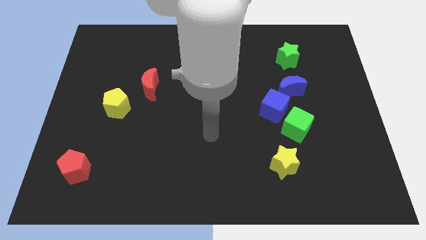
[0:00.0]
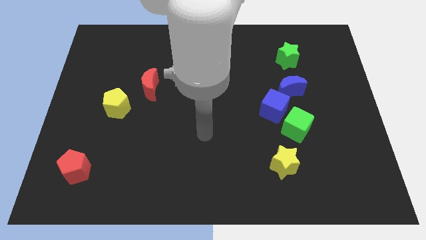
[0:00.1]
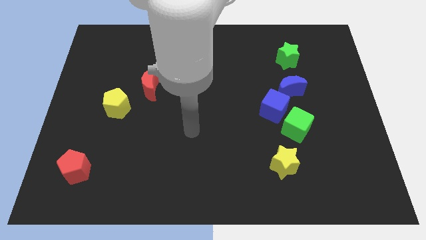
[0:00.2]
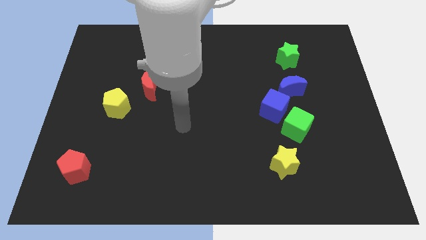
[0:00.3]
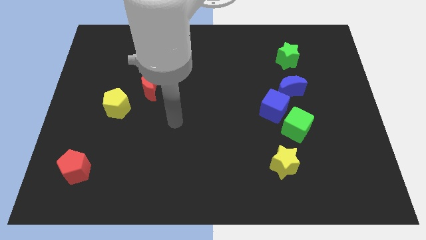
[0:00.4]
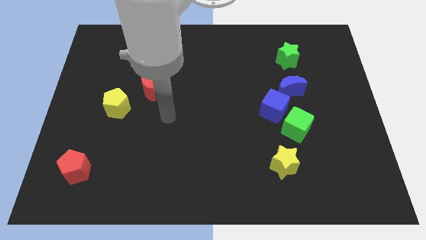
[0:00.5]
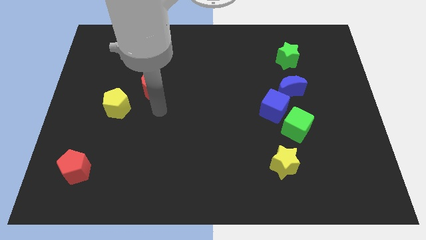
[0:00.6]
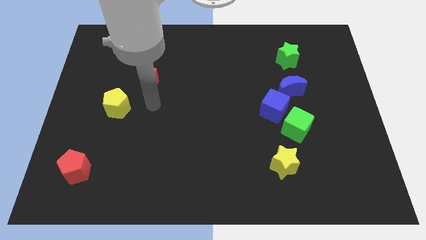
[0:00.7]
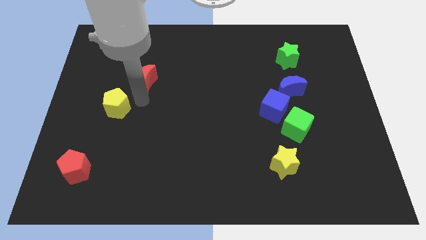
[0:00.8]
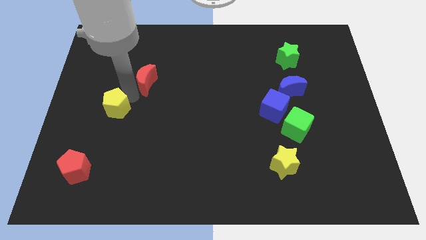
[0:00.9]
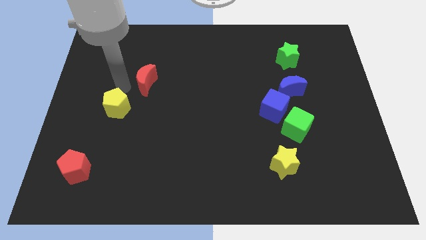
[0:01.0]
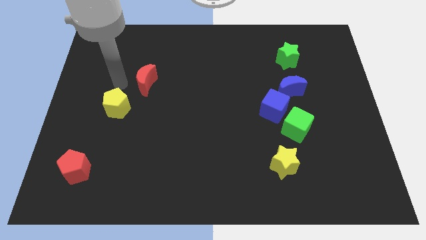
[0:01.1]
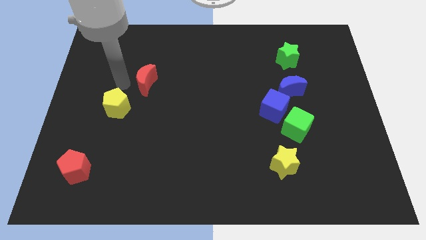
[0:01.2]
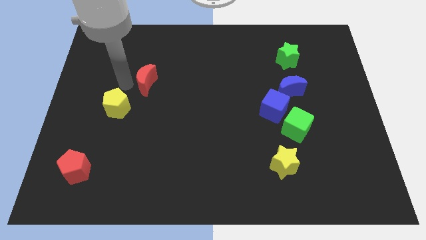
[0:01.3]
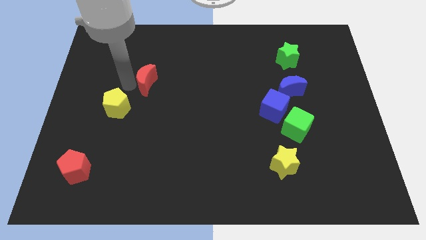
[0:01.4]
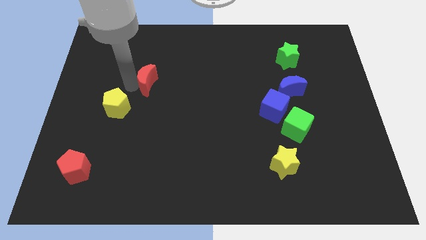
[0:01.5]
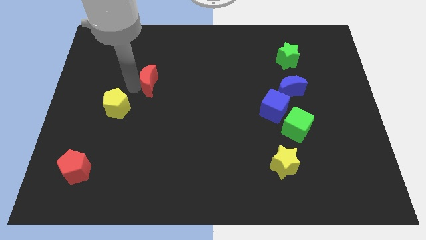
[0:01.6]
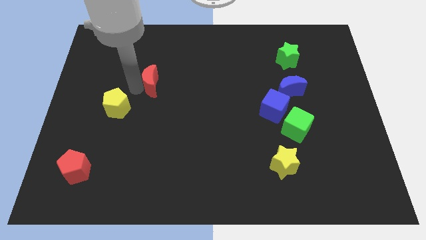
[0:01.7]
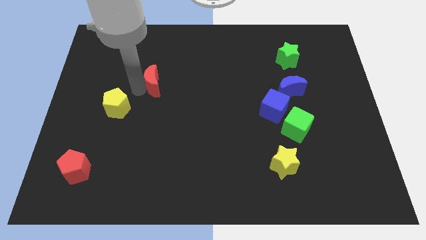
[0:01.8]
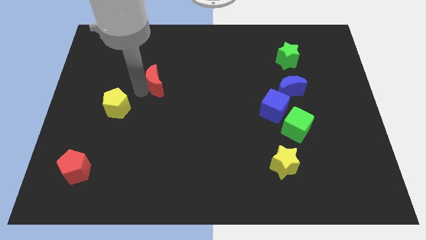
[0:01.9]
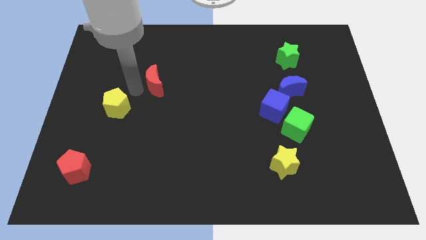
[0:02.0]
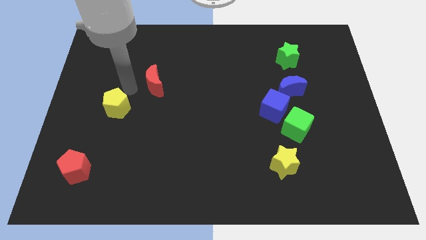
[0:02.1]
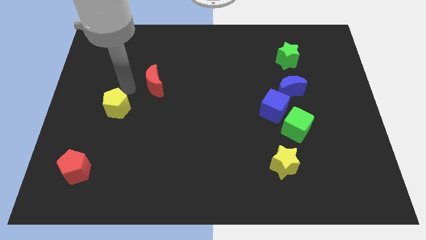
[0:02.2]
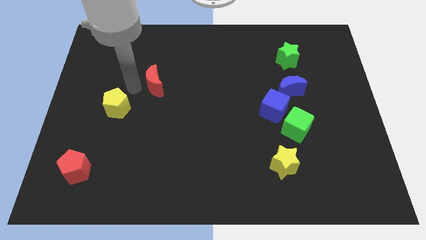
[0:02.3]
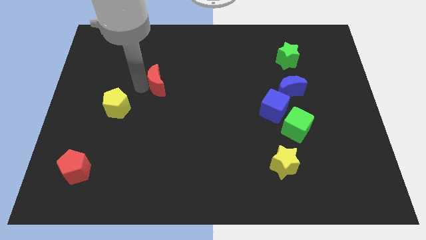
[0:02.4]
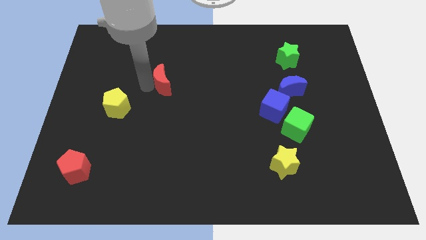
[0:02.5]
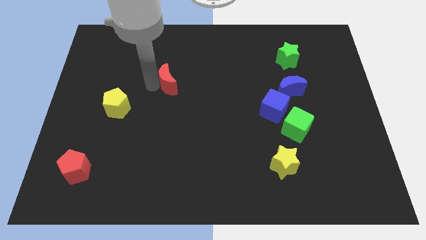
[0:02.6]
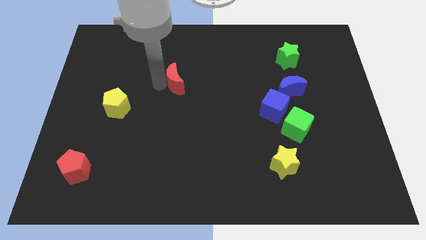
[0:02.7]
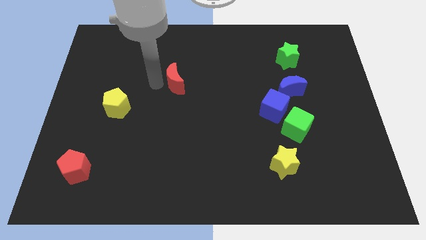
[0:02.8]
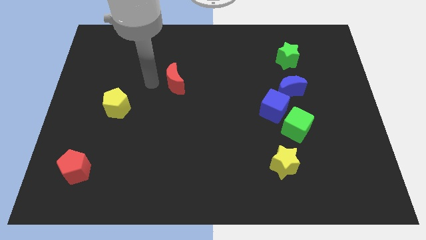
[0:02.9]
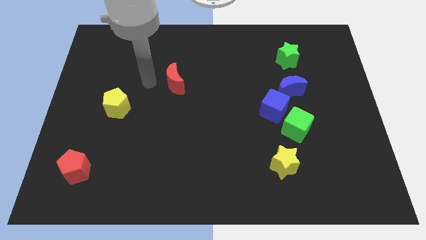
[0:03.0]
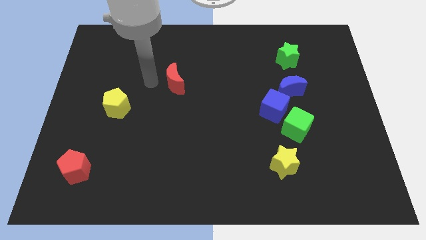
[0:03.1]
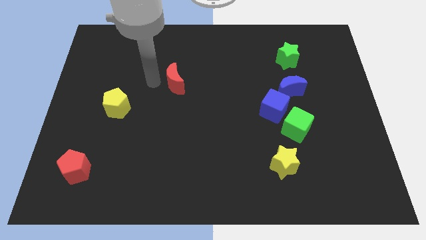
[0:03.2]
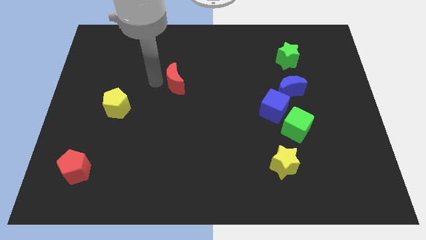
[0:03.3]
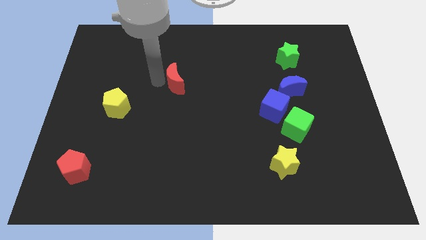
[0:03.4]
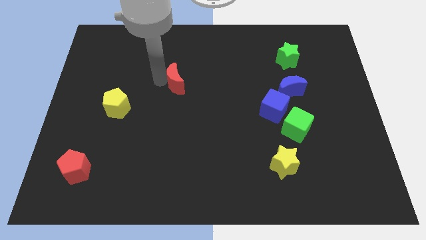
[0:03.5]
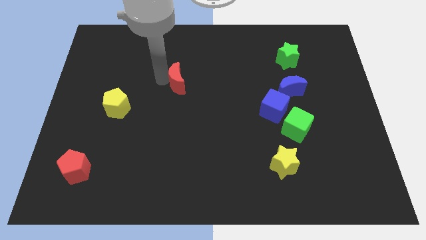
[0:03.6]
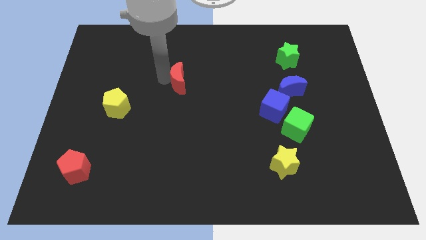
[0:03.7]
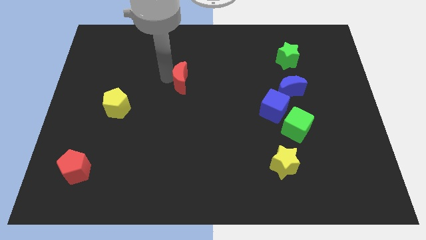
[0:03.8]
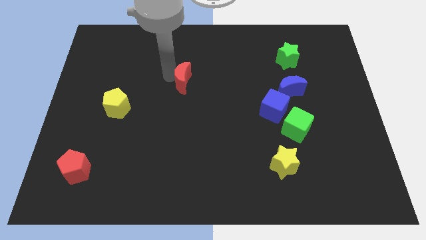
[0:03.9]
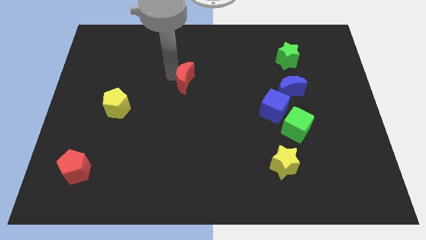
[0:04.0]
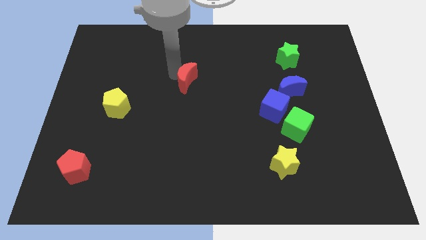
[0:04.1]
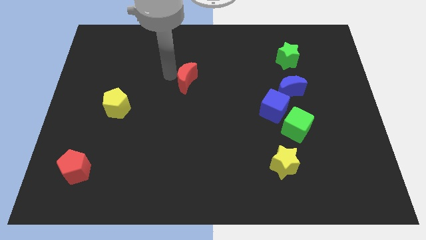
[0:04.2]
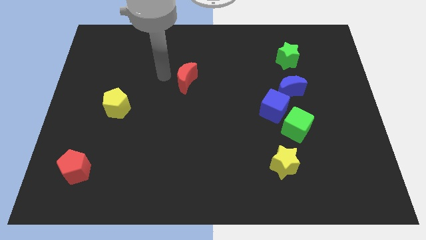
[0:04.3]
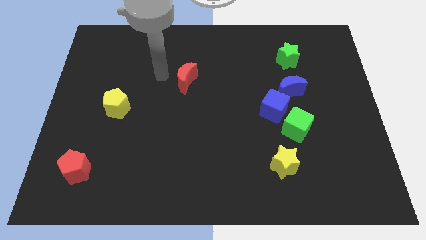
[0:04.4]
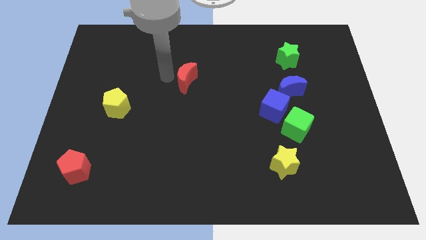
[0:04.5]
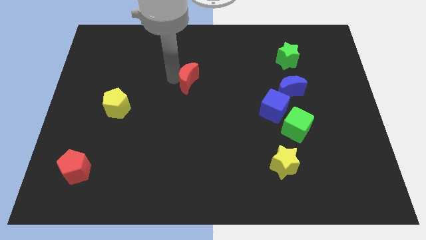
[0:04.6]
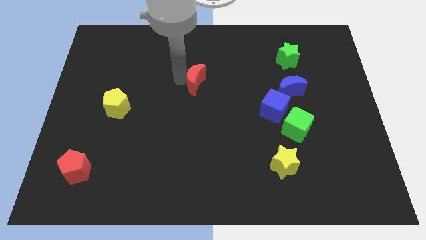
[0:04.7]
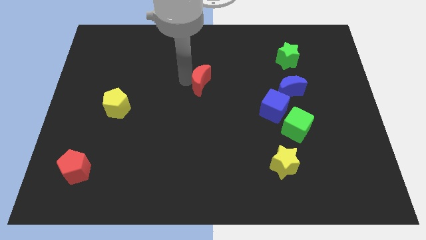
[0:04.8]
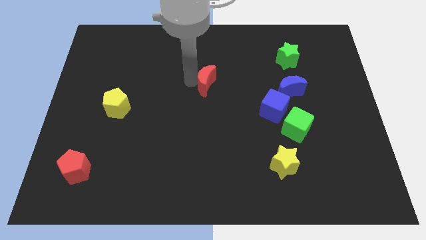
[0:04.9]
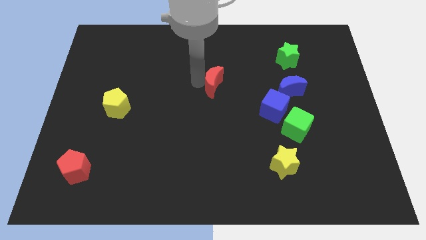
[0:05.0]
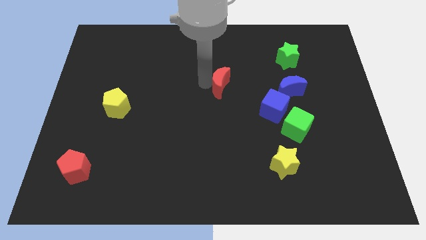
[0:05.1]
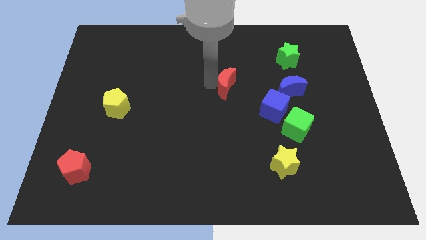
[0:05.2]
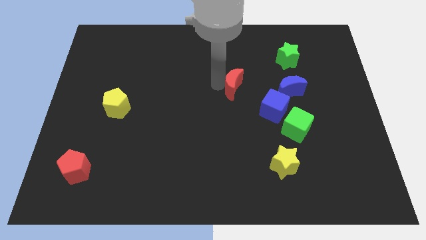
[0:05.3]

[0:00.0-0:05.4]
push the red moon to the top left of the blue cube

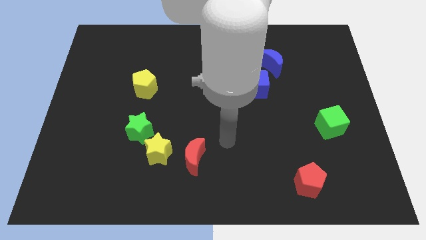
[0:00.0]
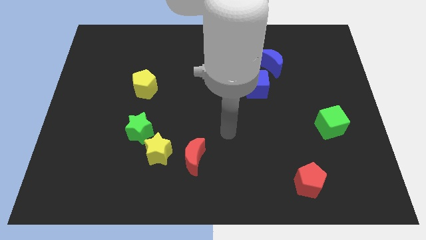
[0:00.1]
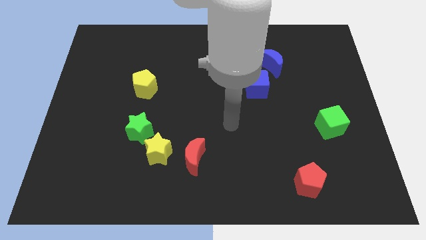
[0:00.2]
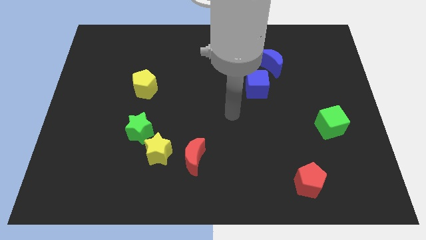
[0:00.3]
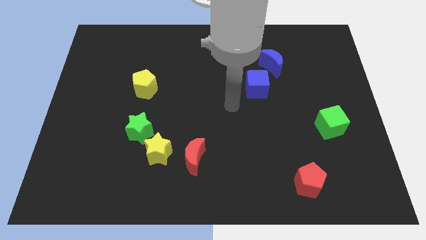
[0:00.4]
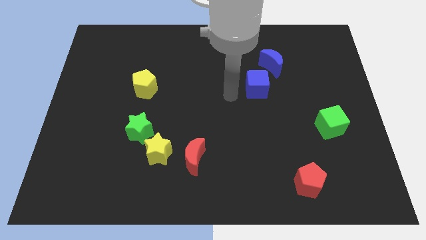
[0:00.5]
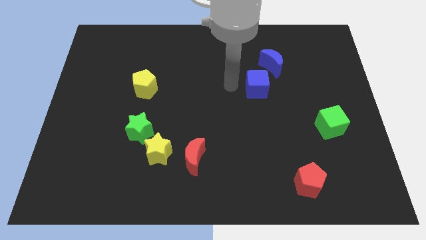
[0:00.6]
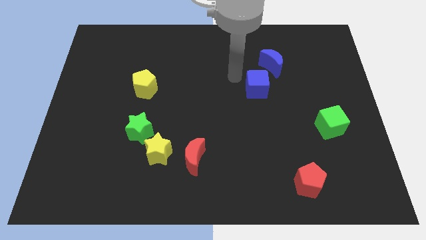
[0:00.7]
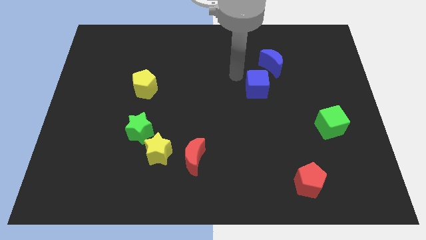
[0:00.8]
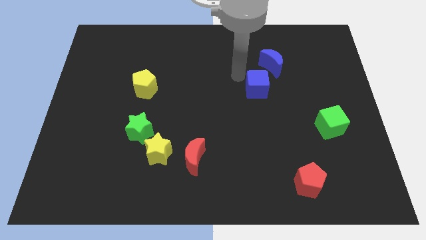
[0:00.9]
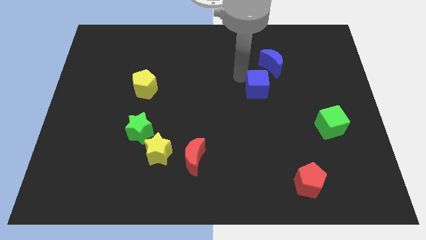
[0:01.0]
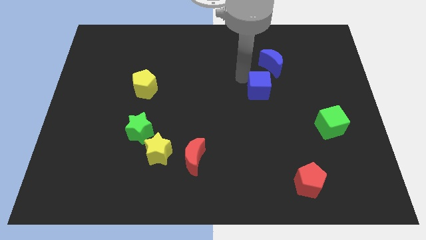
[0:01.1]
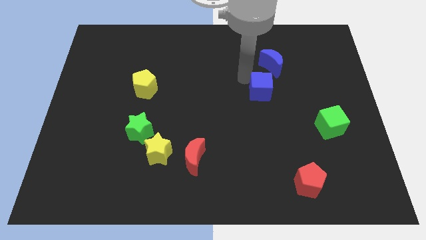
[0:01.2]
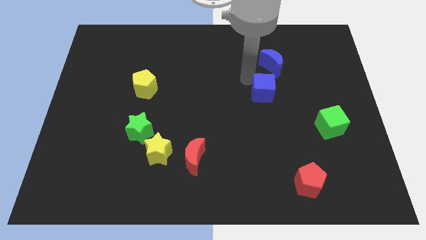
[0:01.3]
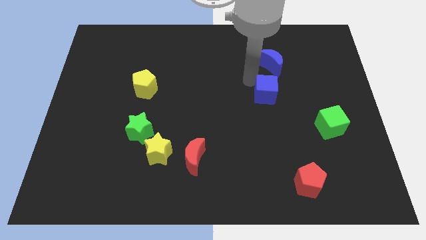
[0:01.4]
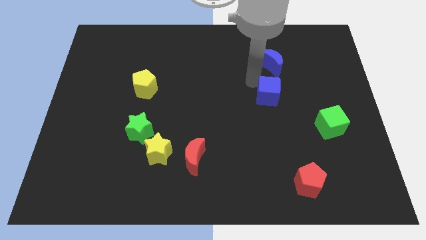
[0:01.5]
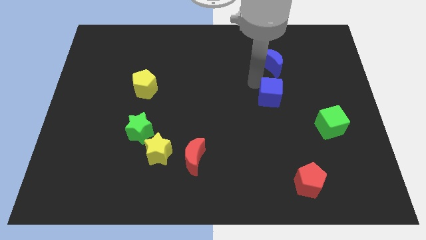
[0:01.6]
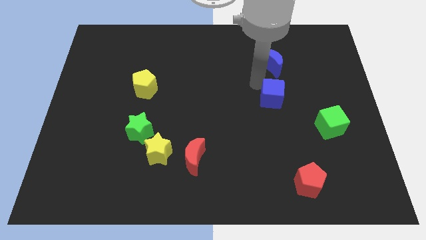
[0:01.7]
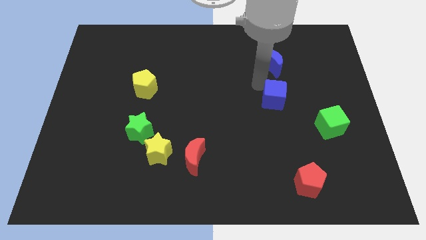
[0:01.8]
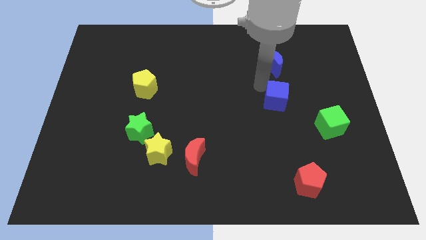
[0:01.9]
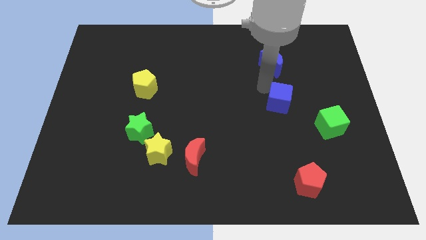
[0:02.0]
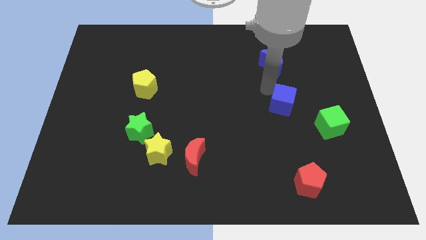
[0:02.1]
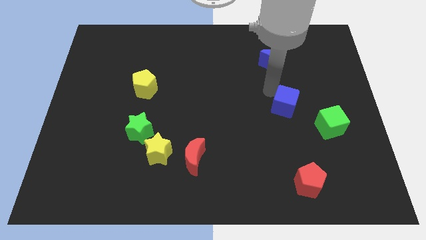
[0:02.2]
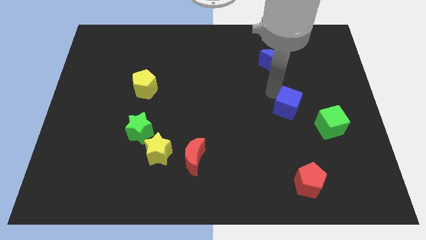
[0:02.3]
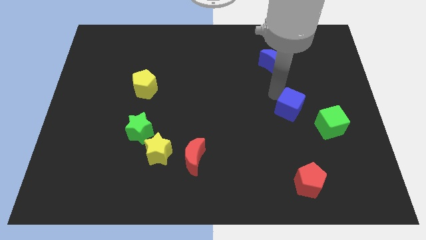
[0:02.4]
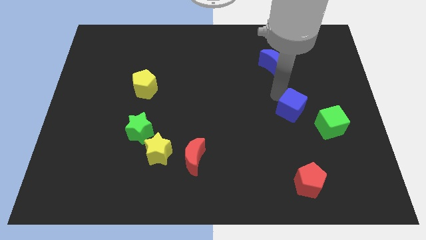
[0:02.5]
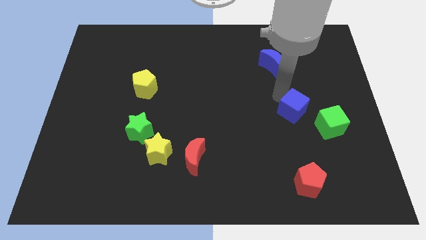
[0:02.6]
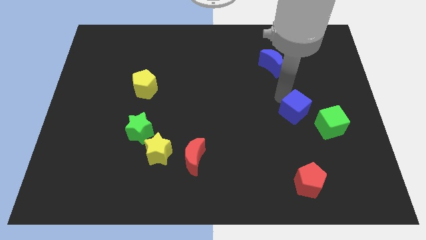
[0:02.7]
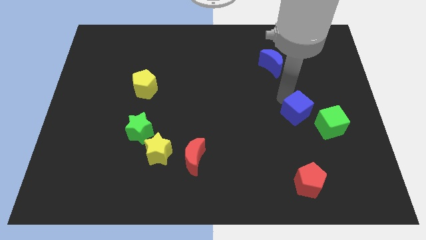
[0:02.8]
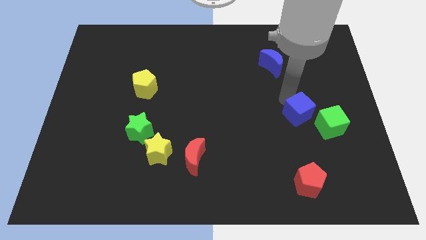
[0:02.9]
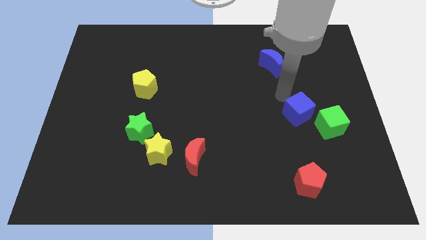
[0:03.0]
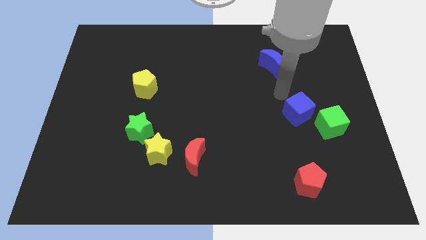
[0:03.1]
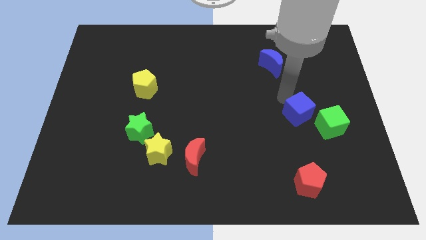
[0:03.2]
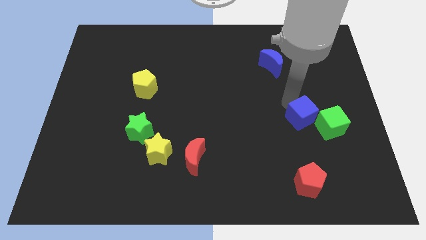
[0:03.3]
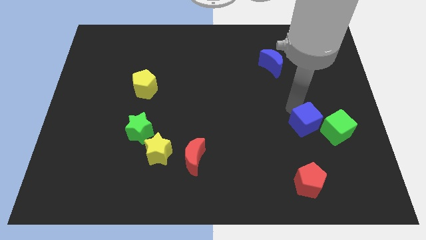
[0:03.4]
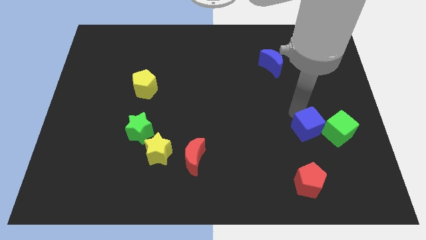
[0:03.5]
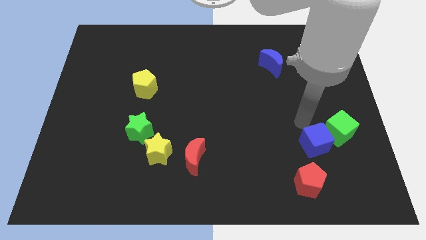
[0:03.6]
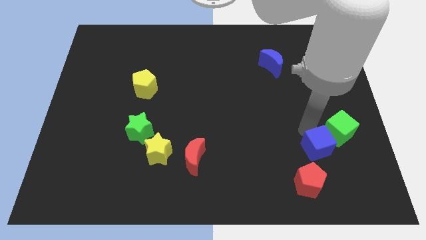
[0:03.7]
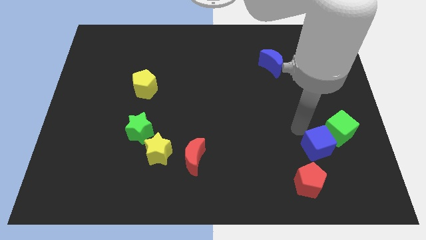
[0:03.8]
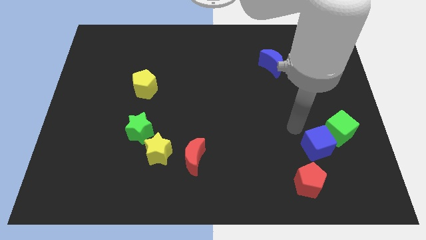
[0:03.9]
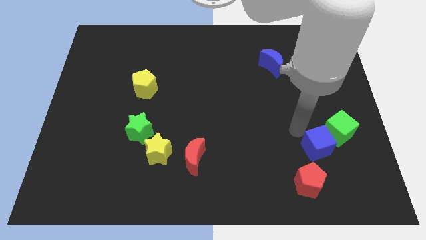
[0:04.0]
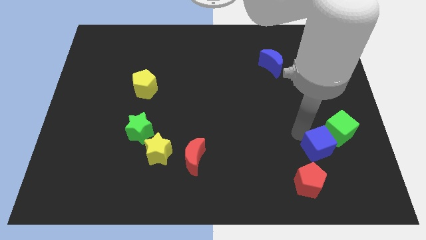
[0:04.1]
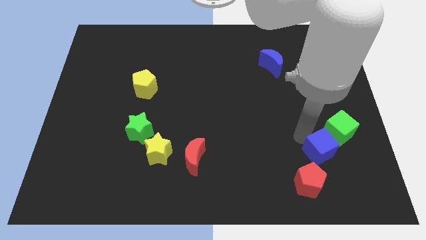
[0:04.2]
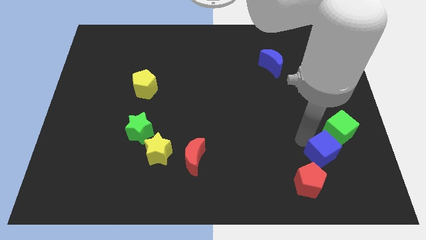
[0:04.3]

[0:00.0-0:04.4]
push the blue cube below the green cube
